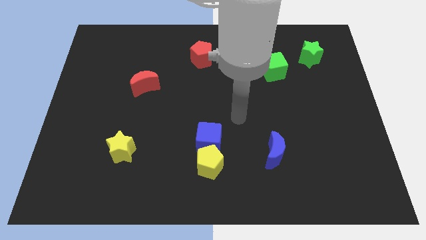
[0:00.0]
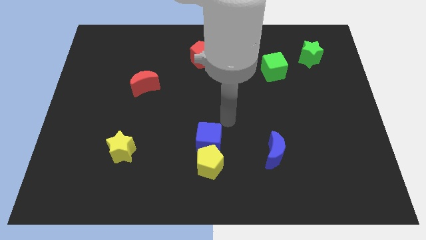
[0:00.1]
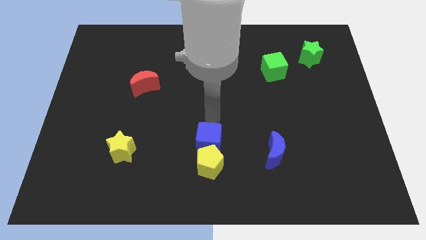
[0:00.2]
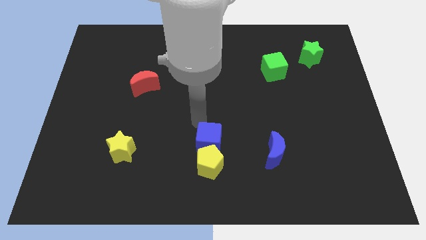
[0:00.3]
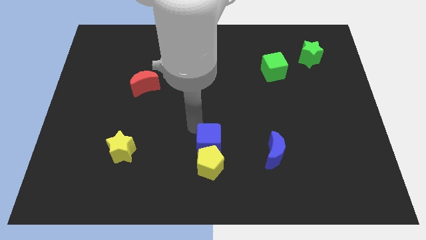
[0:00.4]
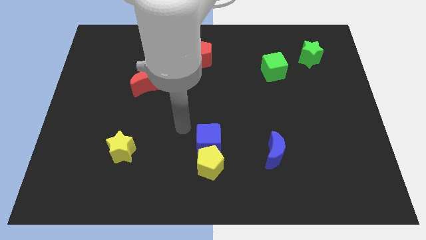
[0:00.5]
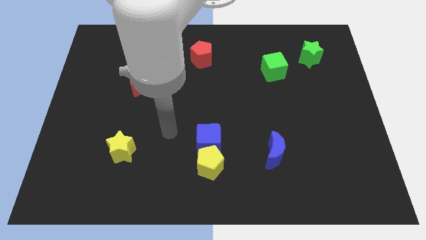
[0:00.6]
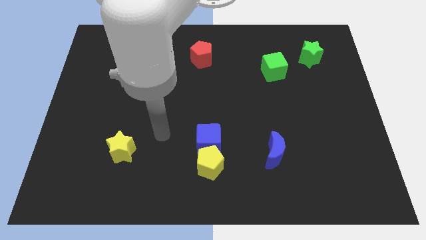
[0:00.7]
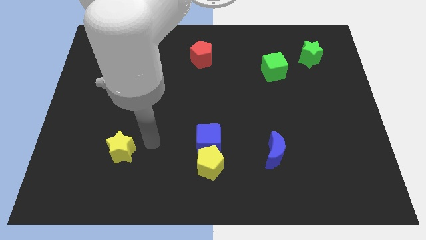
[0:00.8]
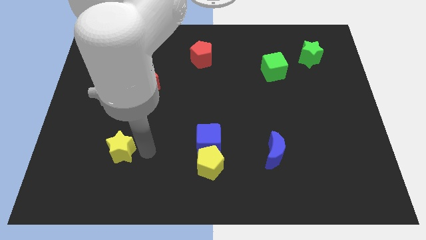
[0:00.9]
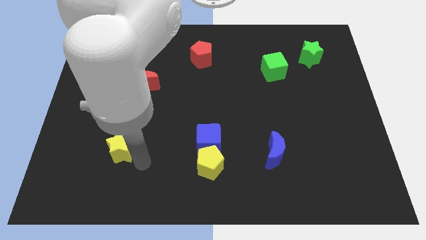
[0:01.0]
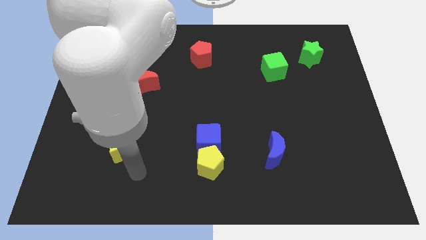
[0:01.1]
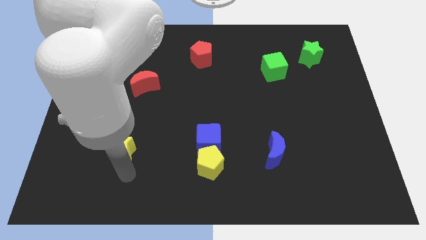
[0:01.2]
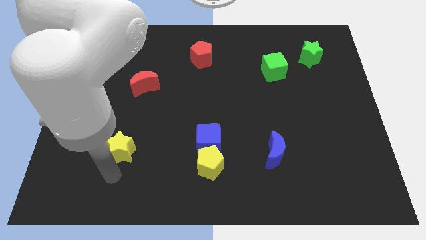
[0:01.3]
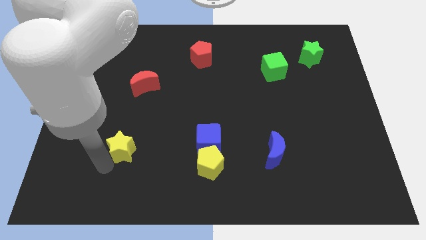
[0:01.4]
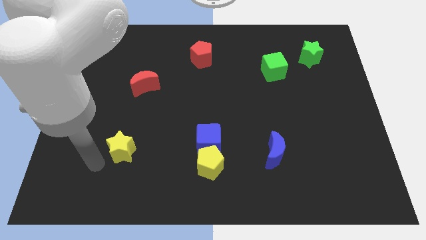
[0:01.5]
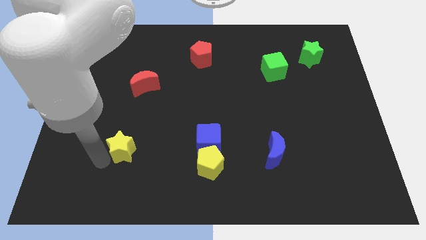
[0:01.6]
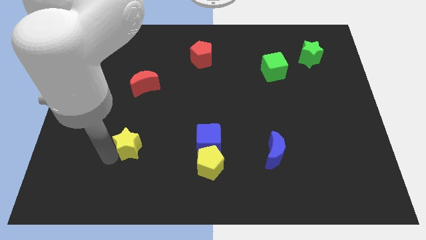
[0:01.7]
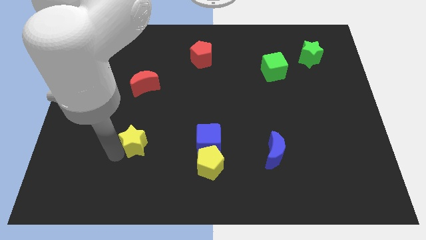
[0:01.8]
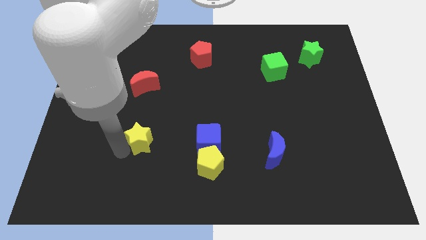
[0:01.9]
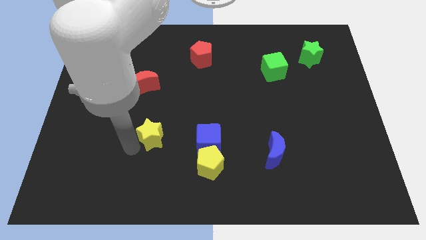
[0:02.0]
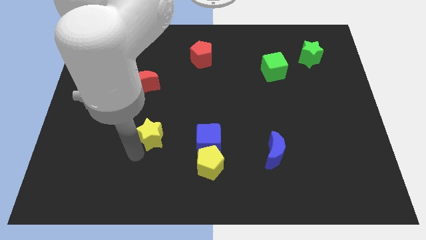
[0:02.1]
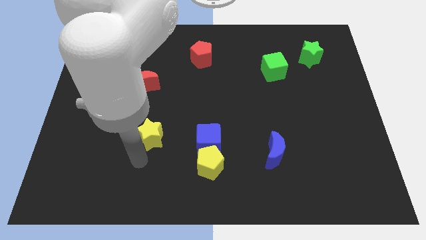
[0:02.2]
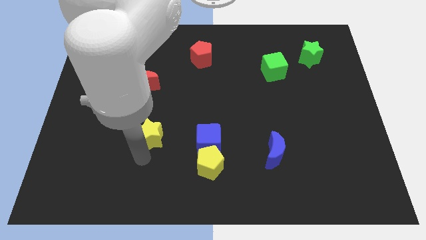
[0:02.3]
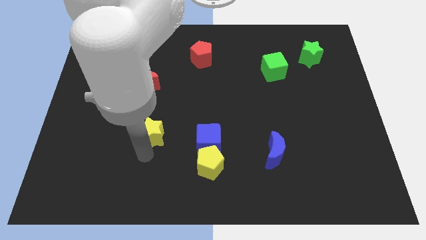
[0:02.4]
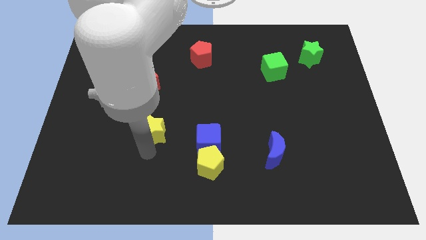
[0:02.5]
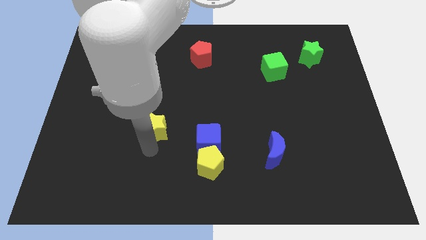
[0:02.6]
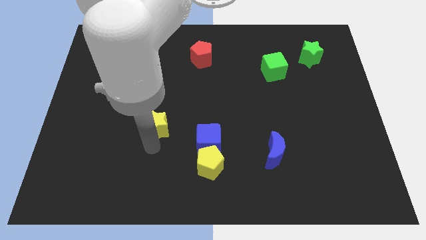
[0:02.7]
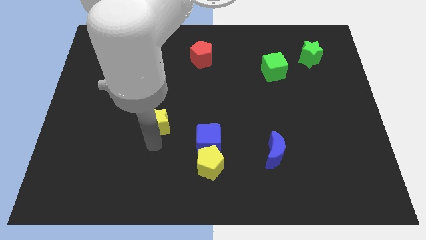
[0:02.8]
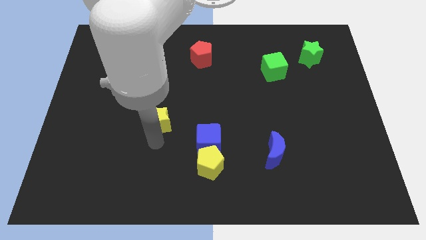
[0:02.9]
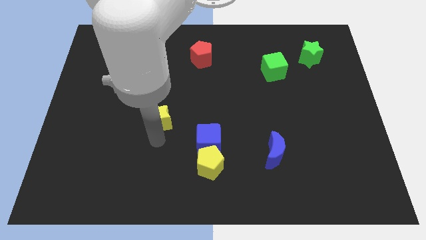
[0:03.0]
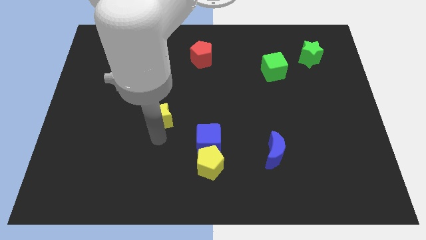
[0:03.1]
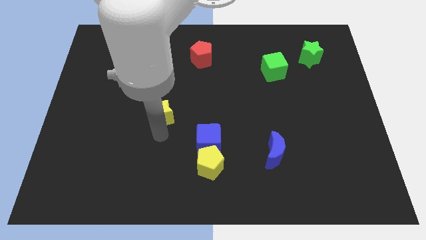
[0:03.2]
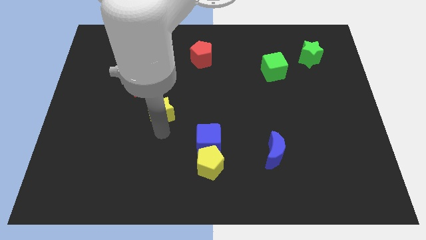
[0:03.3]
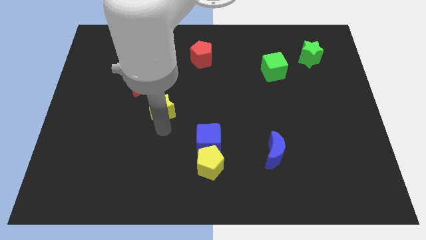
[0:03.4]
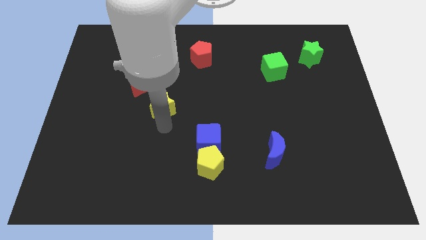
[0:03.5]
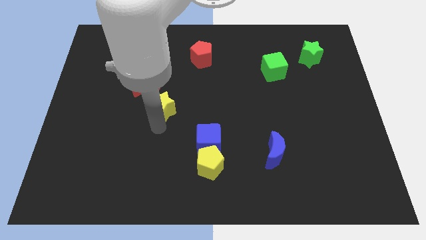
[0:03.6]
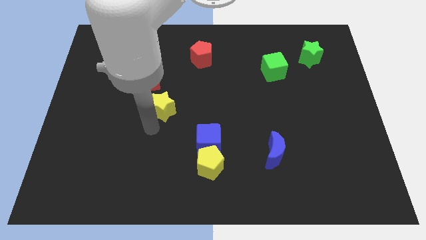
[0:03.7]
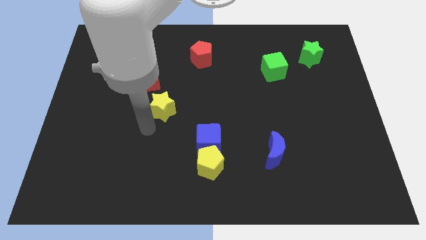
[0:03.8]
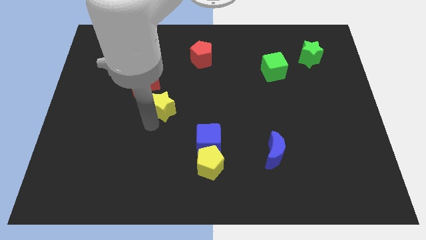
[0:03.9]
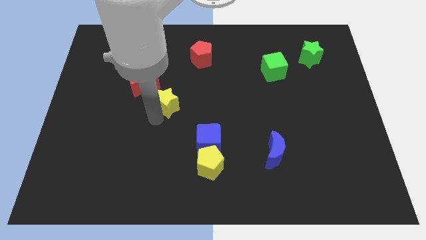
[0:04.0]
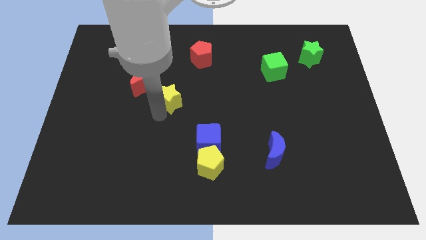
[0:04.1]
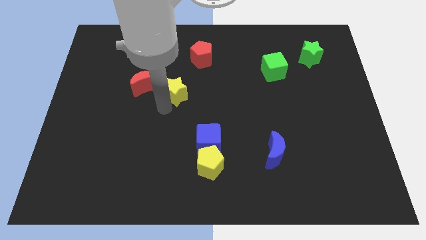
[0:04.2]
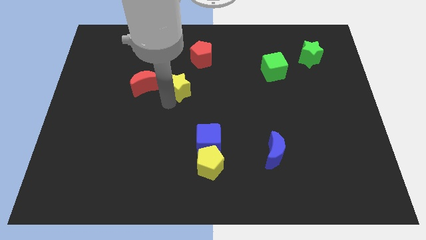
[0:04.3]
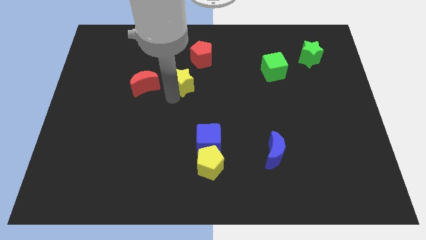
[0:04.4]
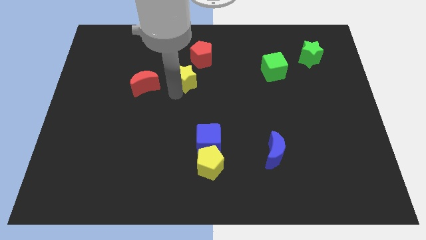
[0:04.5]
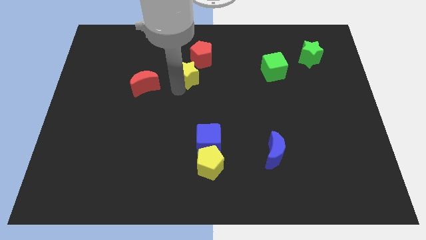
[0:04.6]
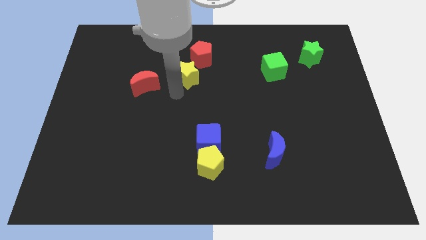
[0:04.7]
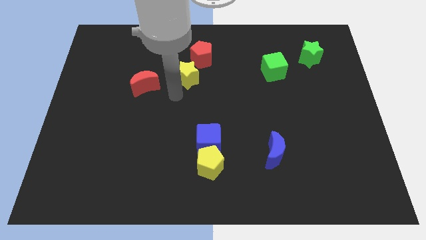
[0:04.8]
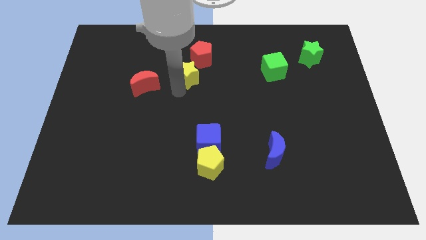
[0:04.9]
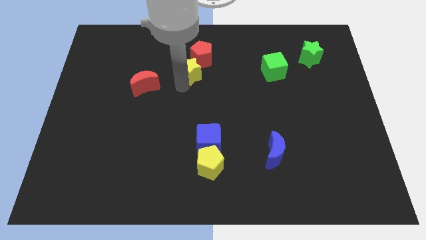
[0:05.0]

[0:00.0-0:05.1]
put the yellow star close to the red pentagon

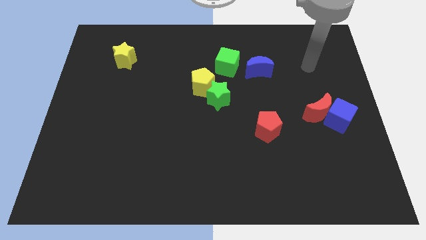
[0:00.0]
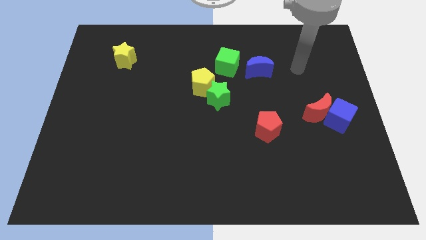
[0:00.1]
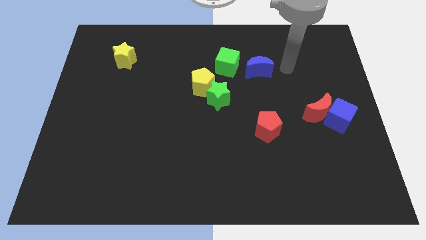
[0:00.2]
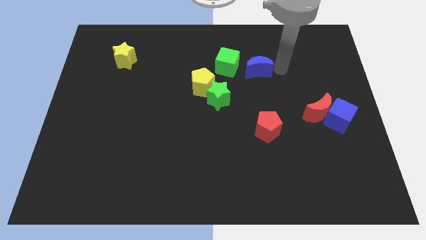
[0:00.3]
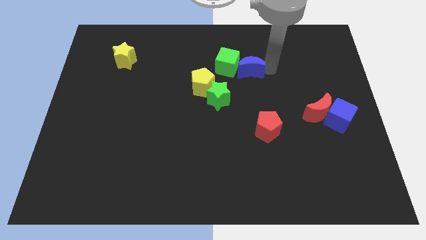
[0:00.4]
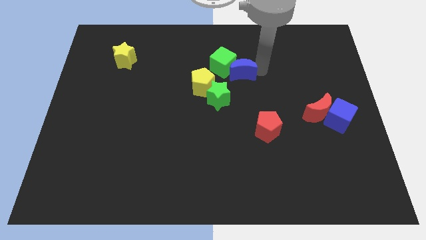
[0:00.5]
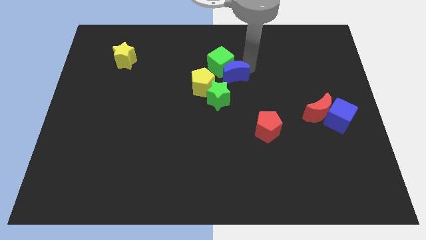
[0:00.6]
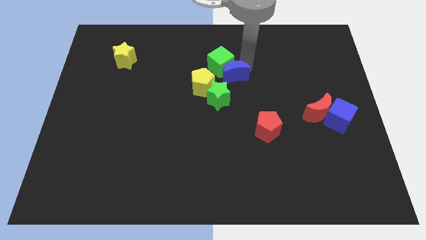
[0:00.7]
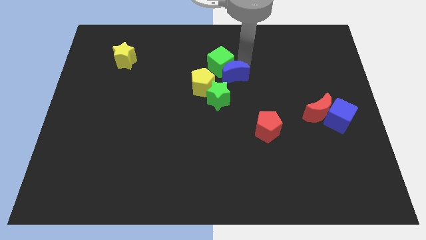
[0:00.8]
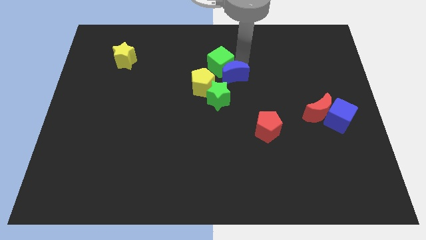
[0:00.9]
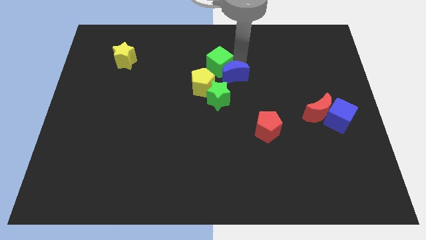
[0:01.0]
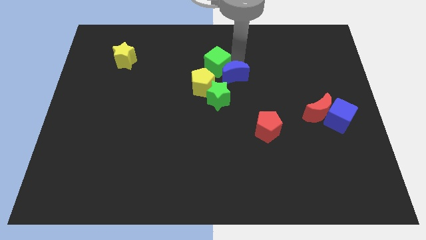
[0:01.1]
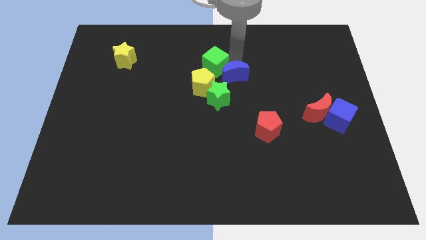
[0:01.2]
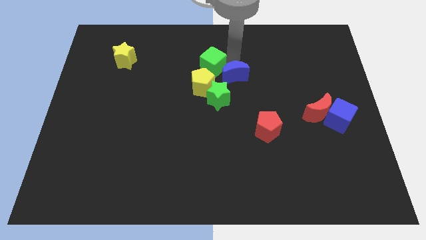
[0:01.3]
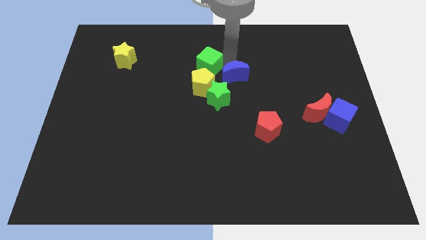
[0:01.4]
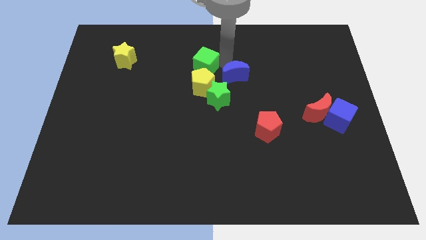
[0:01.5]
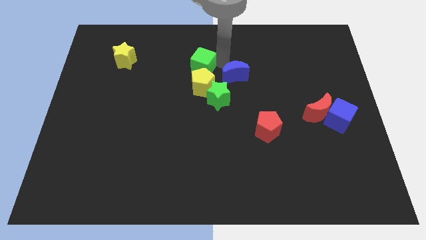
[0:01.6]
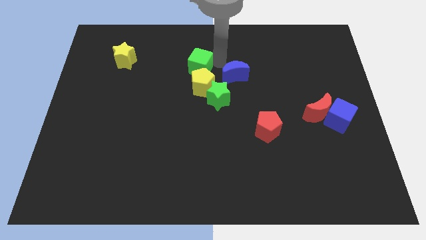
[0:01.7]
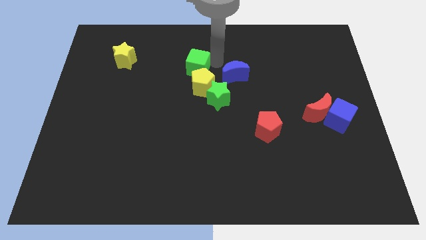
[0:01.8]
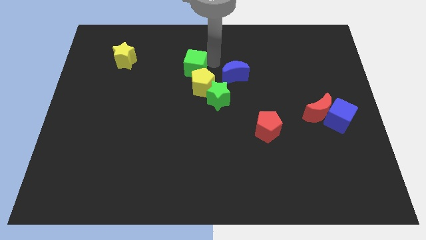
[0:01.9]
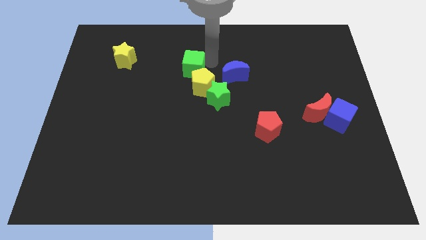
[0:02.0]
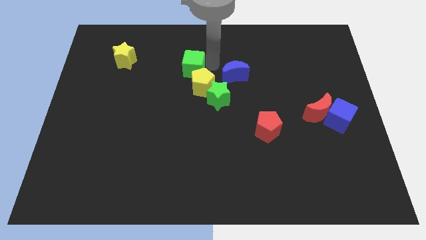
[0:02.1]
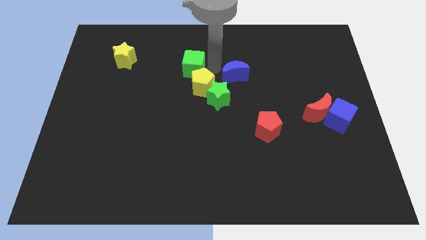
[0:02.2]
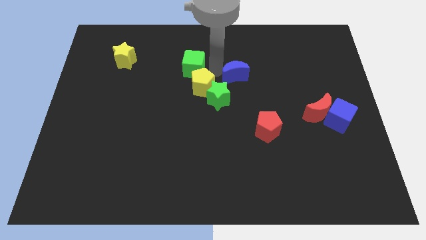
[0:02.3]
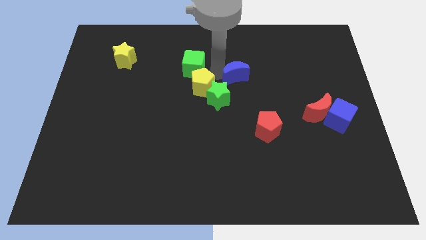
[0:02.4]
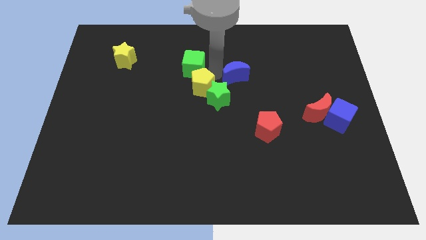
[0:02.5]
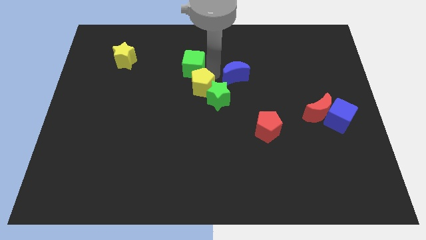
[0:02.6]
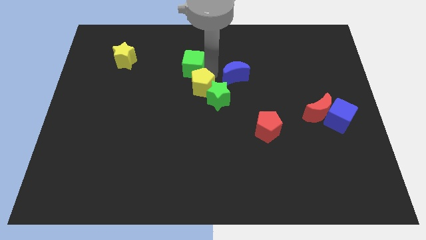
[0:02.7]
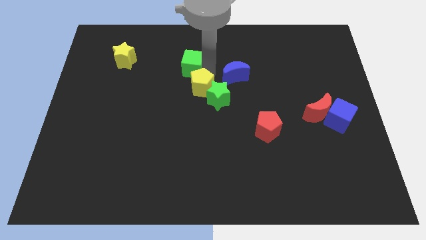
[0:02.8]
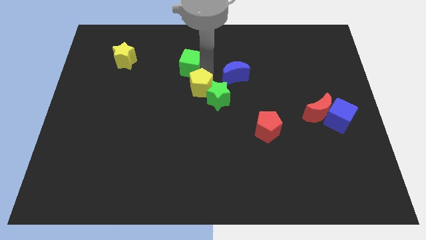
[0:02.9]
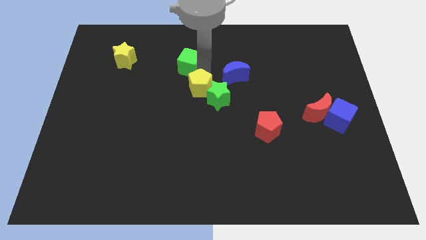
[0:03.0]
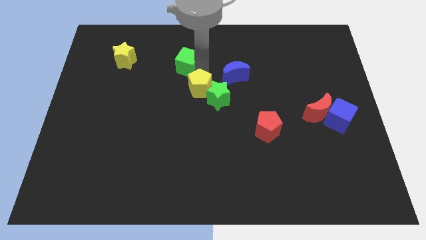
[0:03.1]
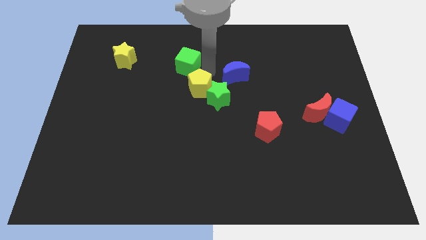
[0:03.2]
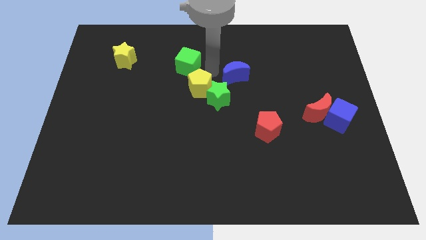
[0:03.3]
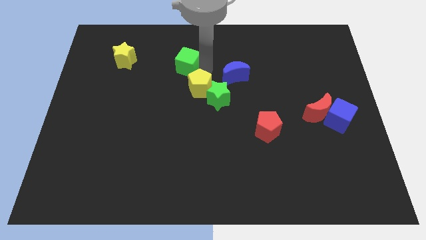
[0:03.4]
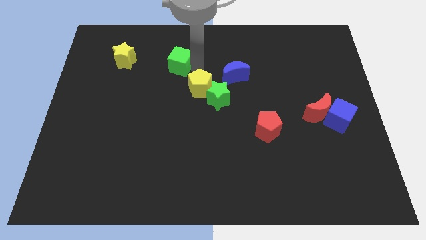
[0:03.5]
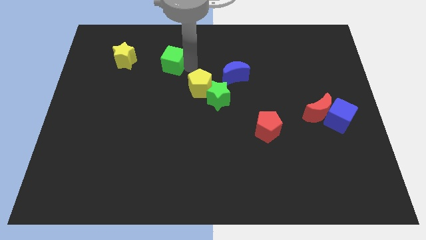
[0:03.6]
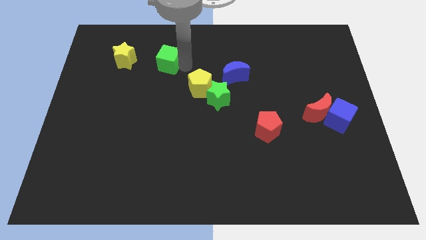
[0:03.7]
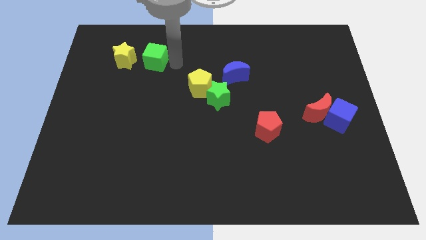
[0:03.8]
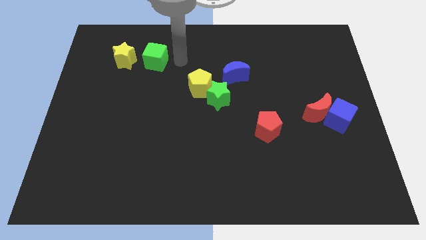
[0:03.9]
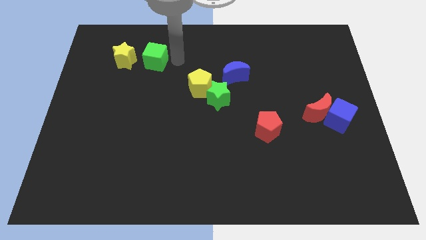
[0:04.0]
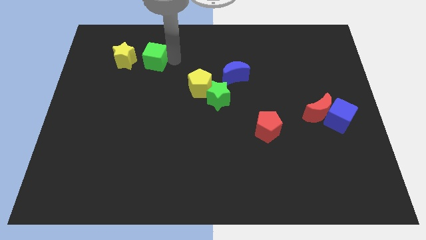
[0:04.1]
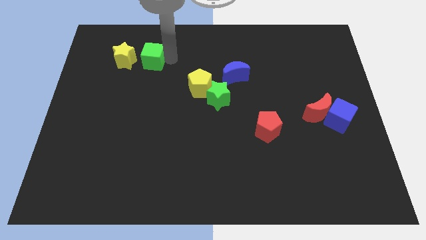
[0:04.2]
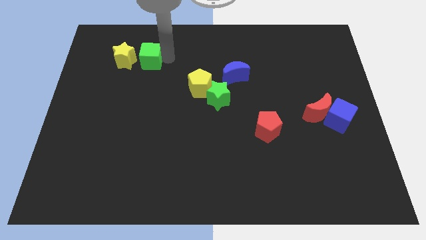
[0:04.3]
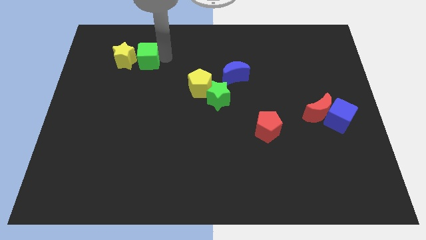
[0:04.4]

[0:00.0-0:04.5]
move the green cube to the yellow star
